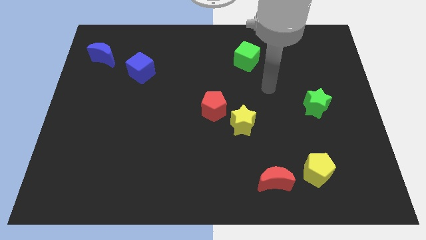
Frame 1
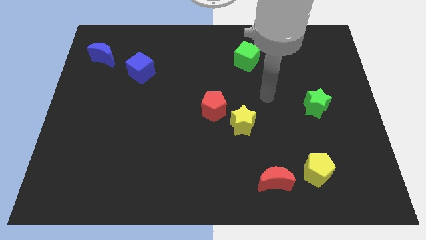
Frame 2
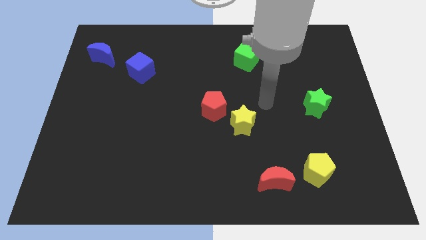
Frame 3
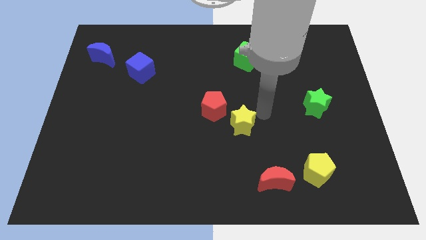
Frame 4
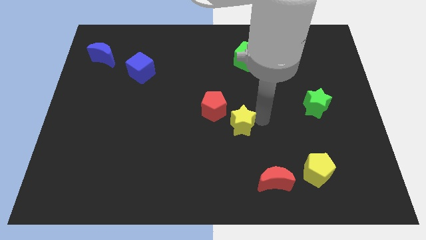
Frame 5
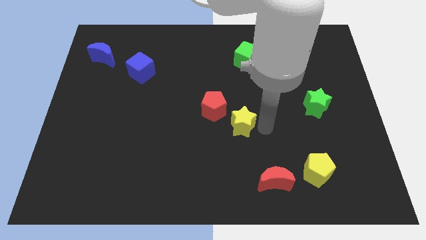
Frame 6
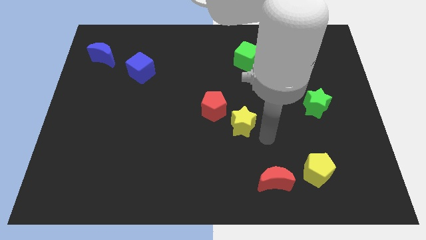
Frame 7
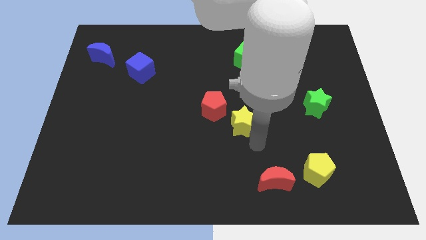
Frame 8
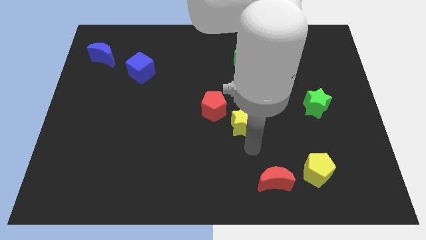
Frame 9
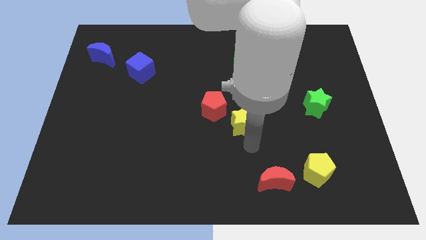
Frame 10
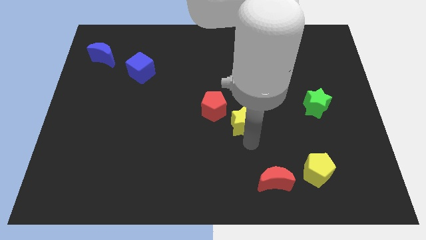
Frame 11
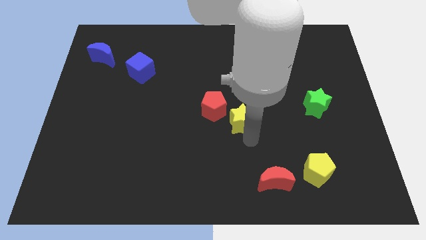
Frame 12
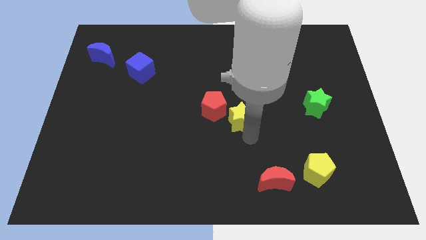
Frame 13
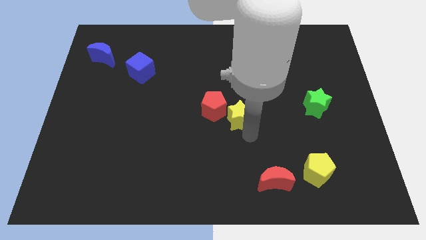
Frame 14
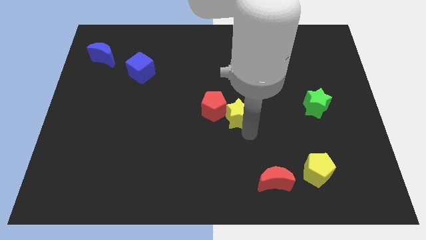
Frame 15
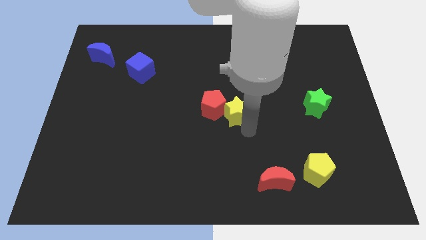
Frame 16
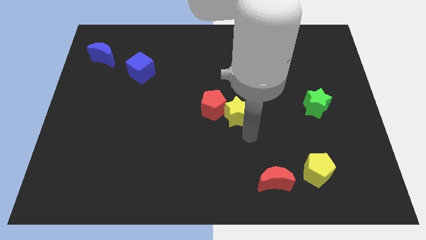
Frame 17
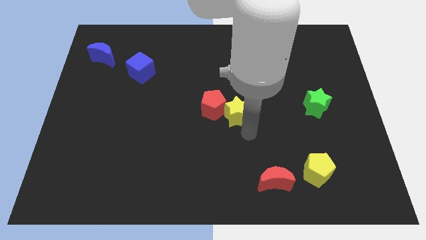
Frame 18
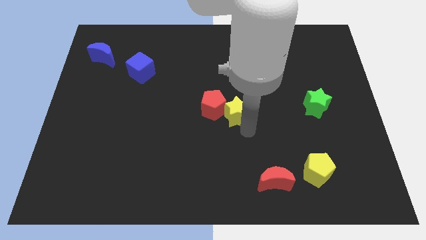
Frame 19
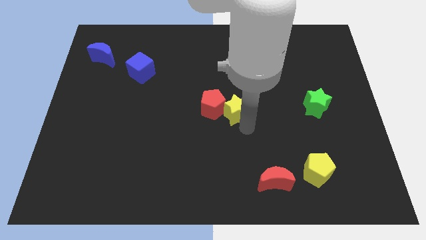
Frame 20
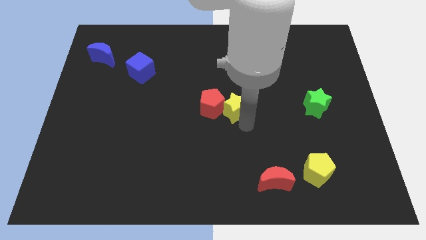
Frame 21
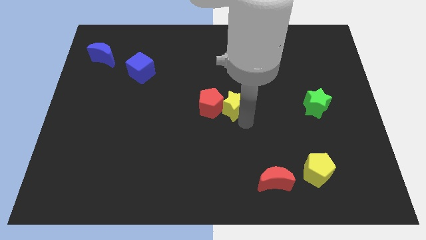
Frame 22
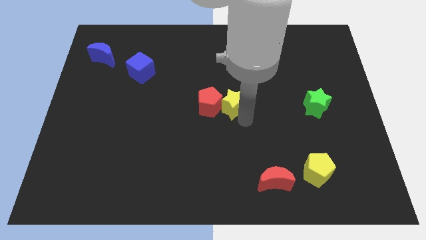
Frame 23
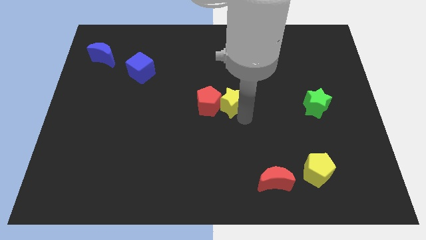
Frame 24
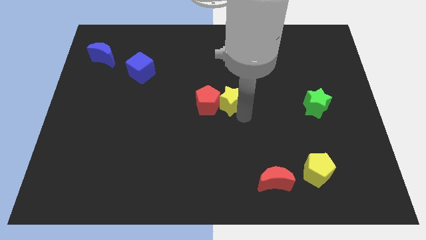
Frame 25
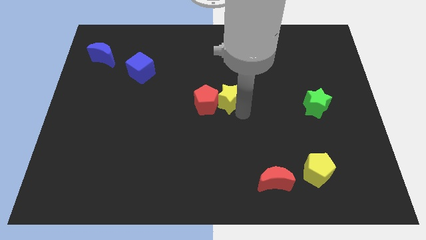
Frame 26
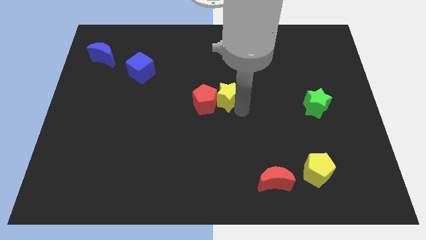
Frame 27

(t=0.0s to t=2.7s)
slightly move the yellow star up and then left

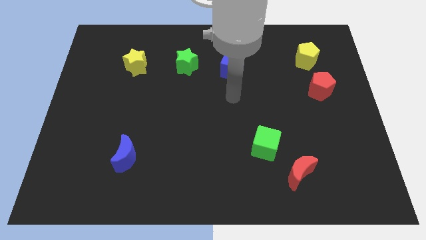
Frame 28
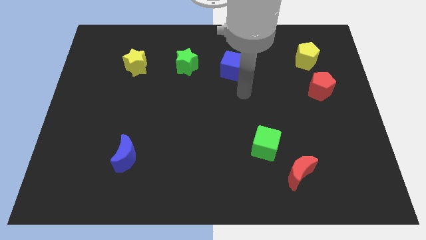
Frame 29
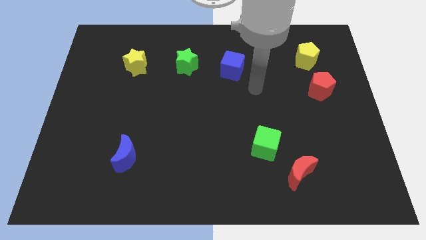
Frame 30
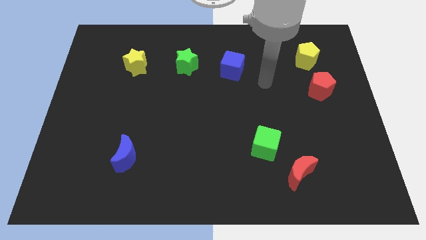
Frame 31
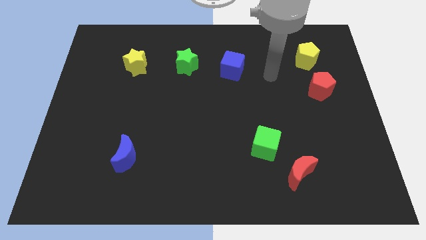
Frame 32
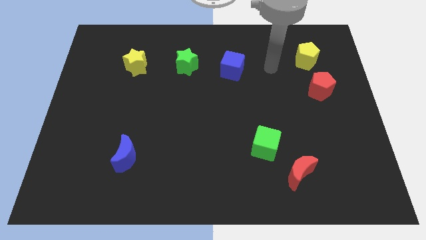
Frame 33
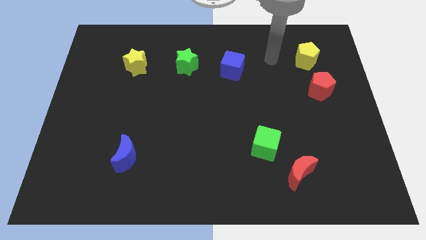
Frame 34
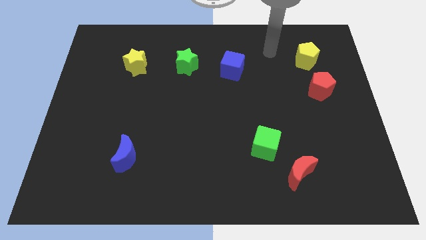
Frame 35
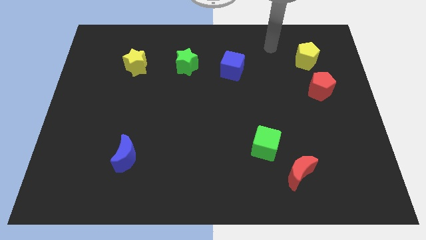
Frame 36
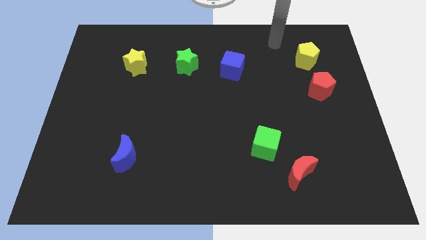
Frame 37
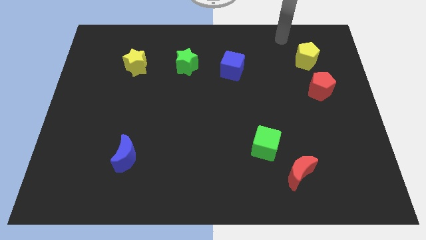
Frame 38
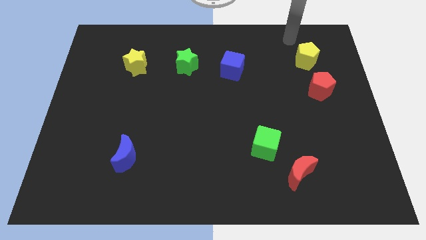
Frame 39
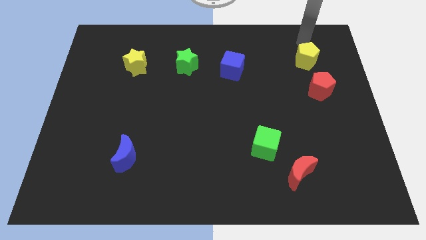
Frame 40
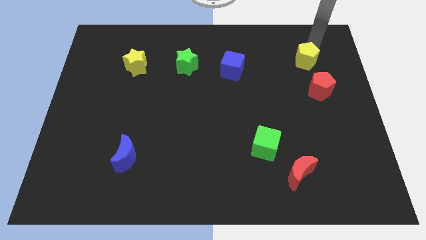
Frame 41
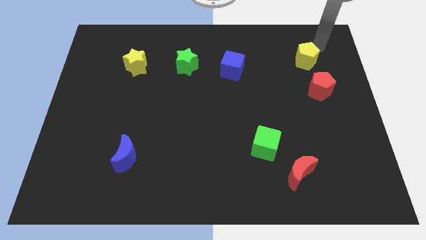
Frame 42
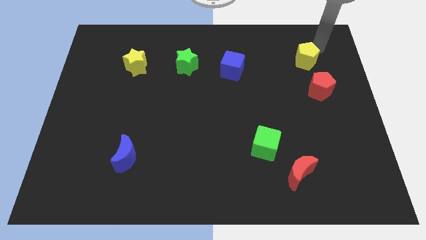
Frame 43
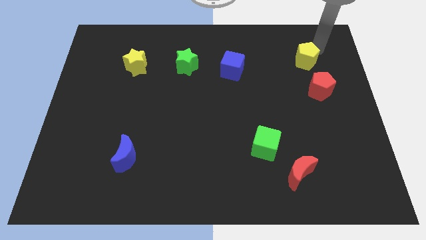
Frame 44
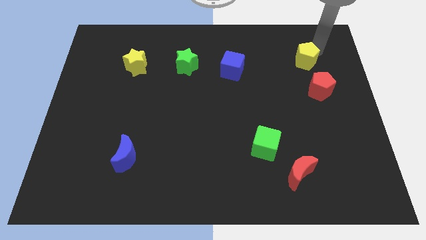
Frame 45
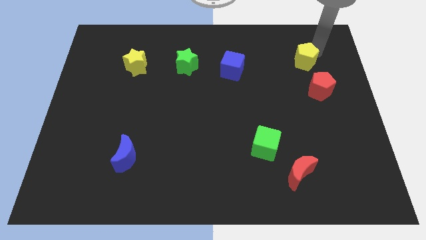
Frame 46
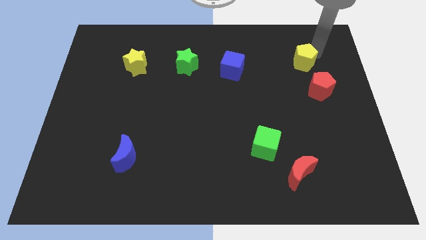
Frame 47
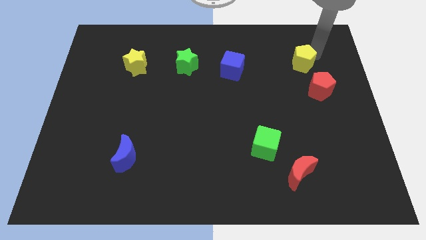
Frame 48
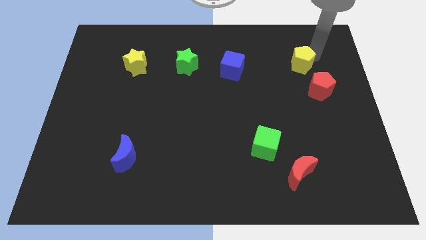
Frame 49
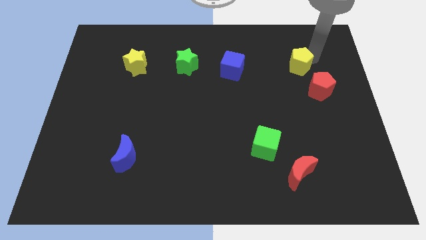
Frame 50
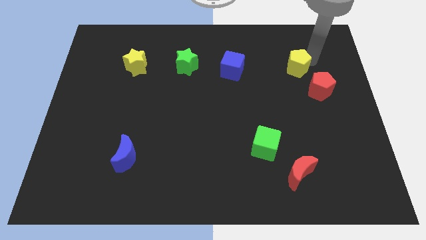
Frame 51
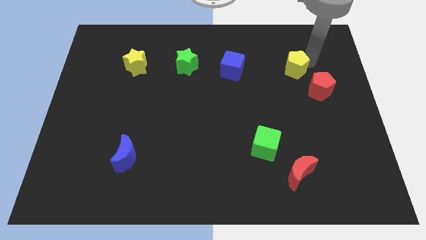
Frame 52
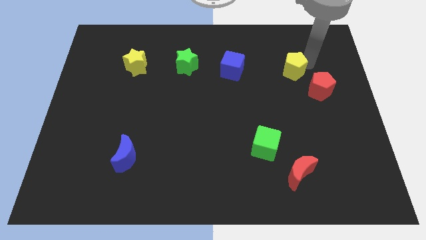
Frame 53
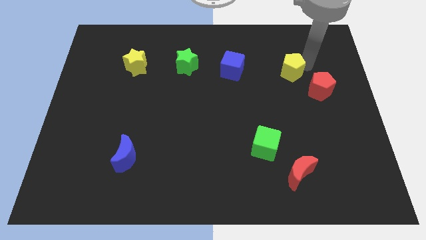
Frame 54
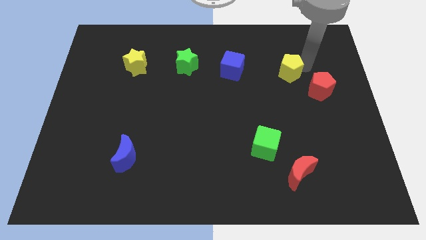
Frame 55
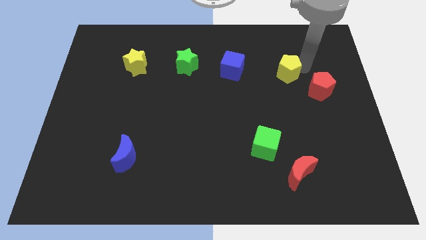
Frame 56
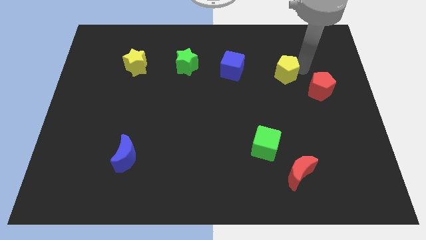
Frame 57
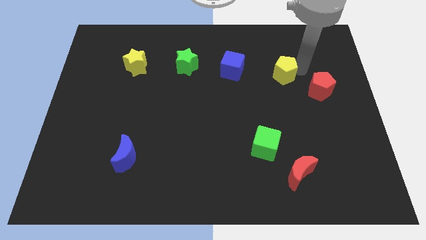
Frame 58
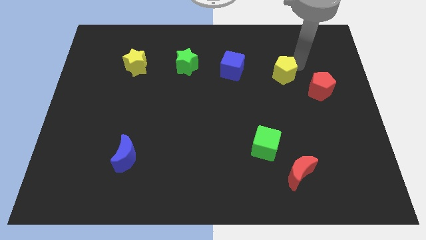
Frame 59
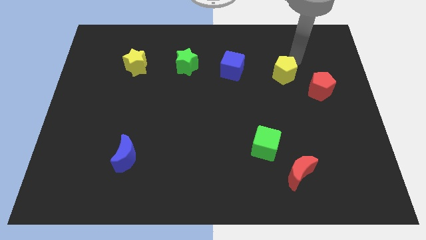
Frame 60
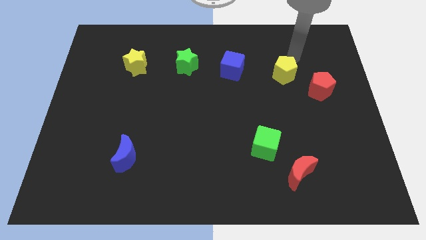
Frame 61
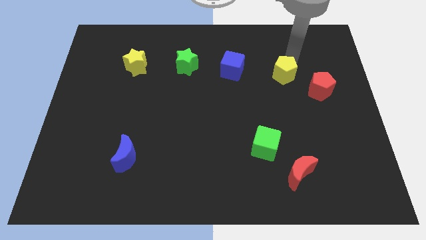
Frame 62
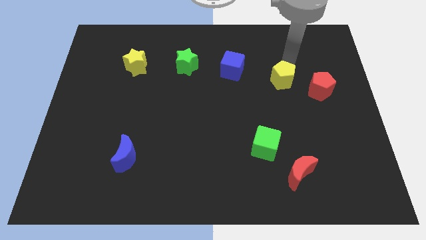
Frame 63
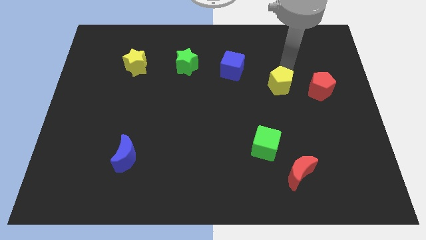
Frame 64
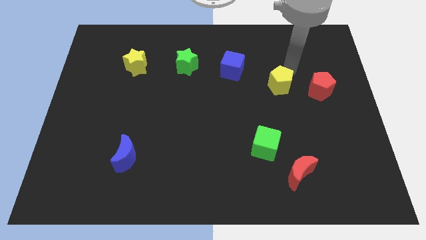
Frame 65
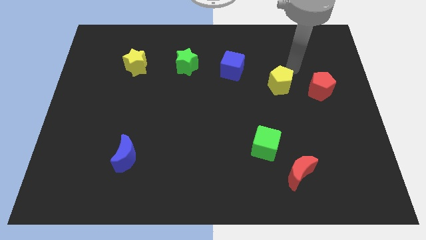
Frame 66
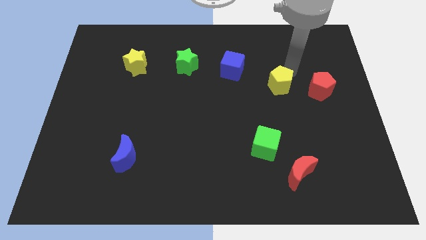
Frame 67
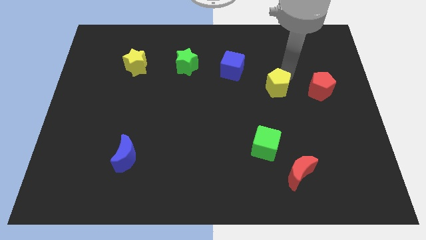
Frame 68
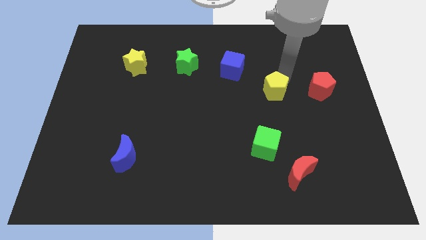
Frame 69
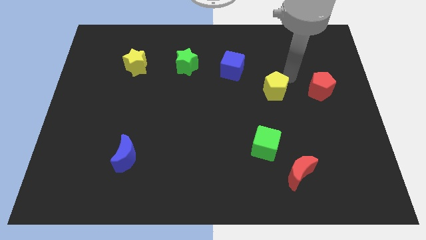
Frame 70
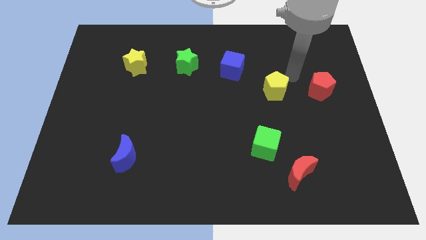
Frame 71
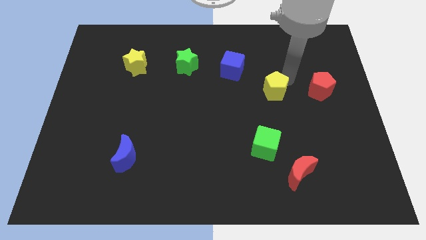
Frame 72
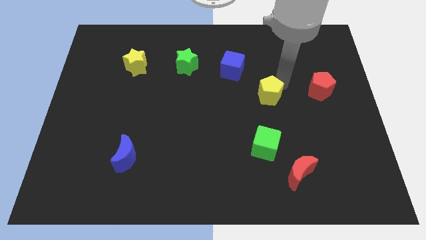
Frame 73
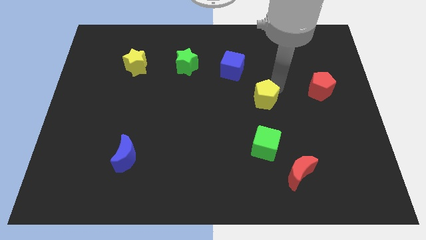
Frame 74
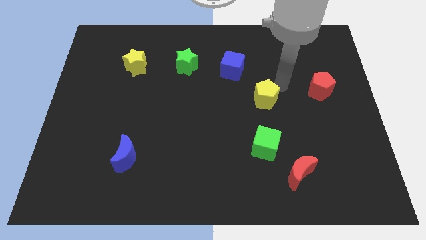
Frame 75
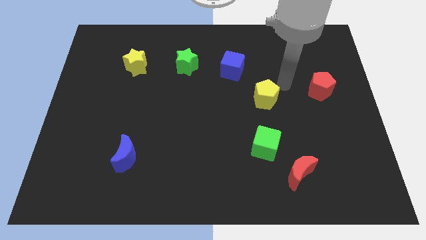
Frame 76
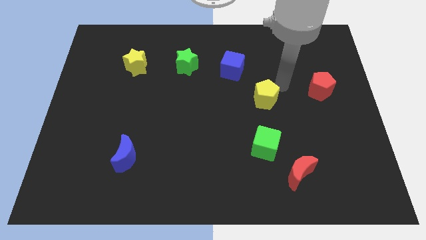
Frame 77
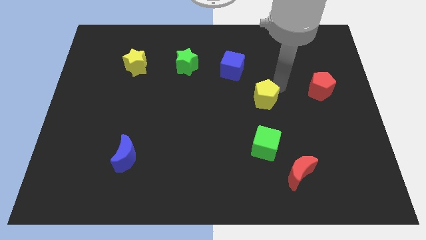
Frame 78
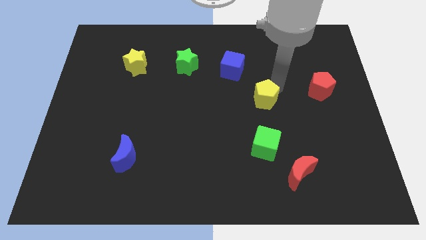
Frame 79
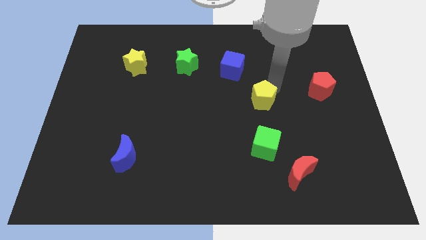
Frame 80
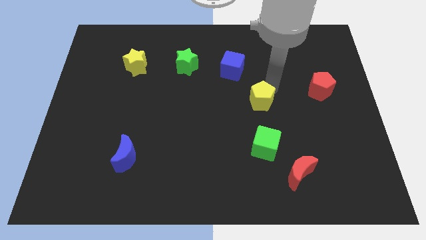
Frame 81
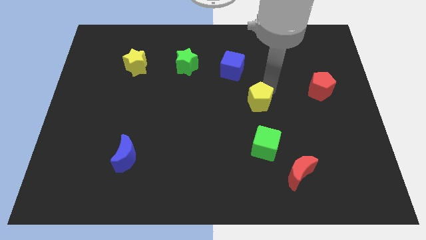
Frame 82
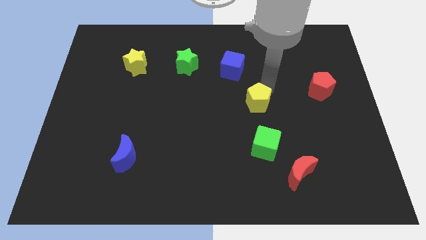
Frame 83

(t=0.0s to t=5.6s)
push the yellow pentagon downwards and to the left diagonally
